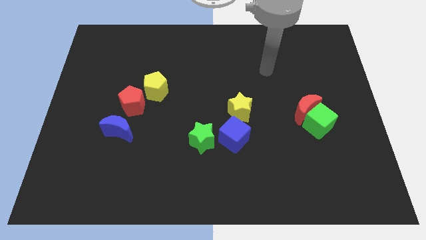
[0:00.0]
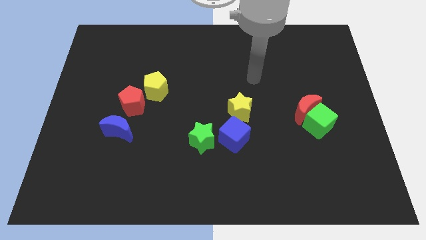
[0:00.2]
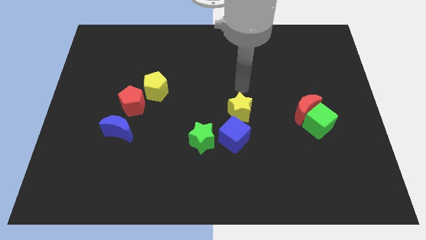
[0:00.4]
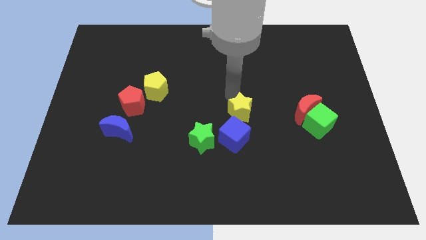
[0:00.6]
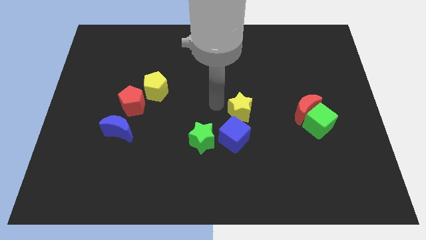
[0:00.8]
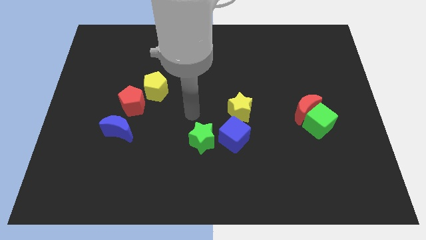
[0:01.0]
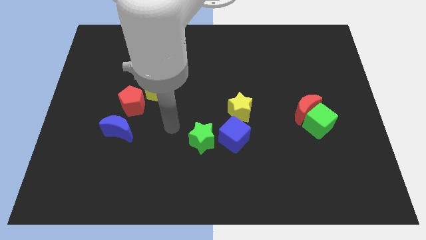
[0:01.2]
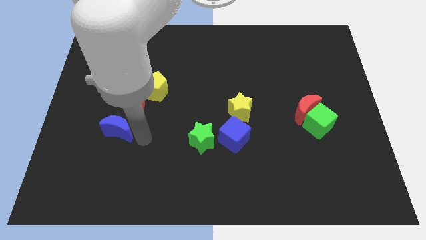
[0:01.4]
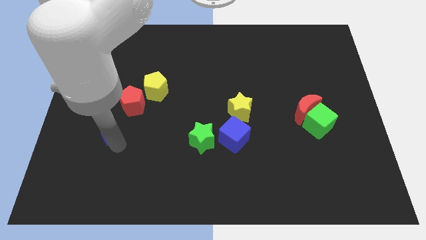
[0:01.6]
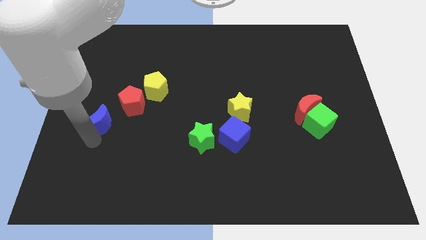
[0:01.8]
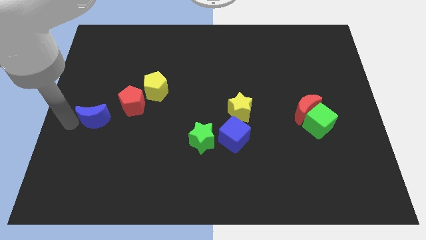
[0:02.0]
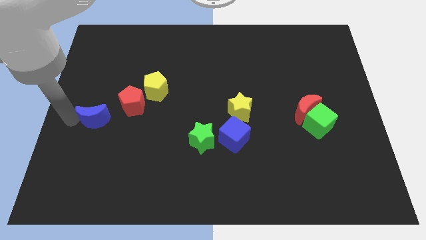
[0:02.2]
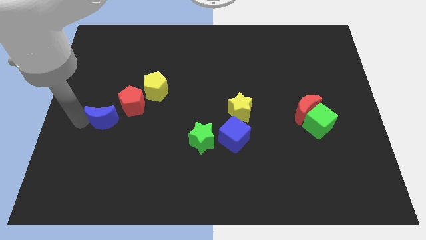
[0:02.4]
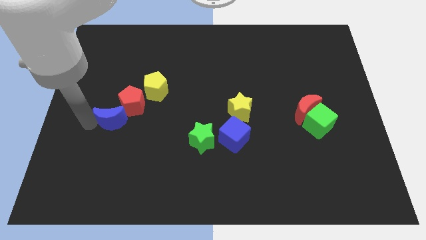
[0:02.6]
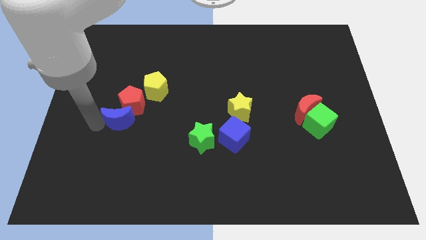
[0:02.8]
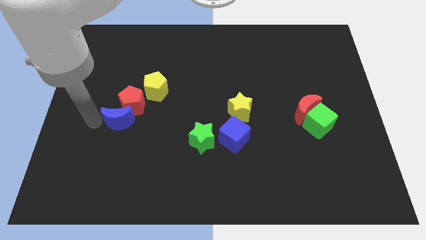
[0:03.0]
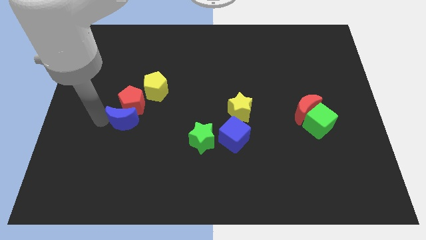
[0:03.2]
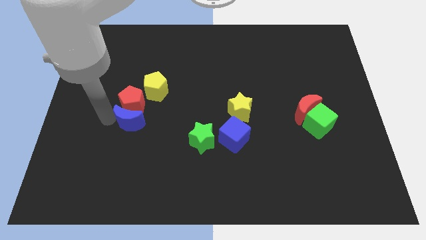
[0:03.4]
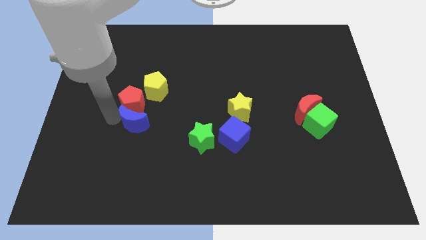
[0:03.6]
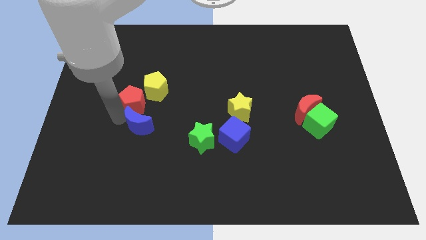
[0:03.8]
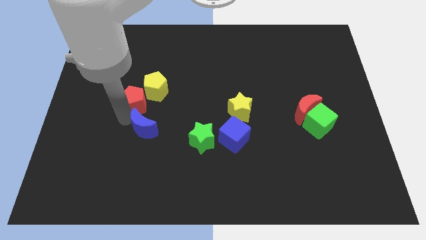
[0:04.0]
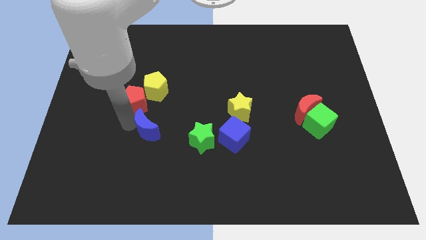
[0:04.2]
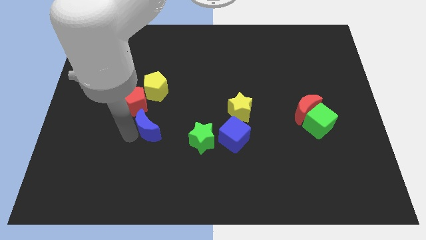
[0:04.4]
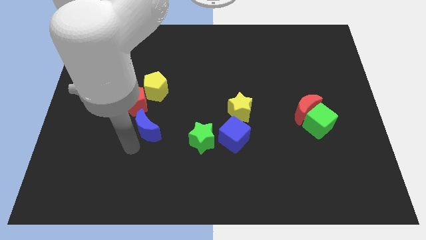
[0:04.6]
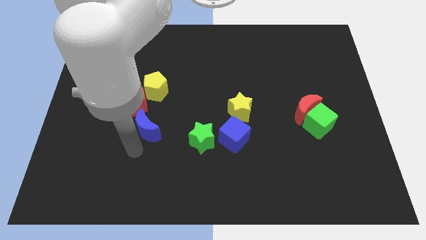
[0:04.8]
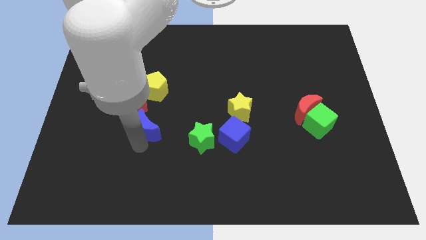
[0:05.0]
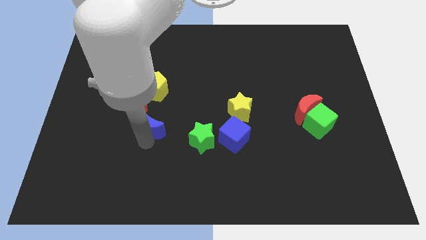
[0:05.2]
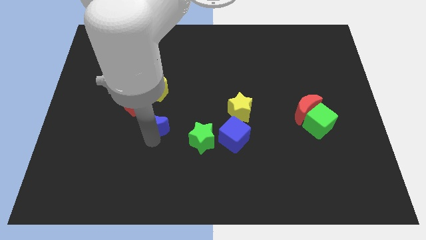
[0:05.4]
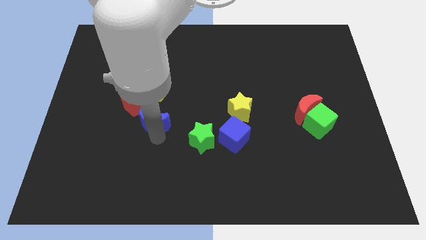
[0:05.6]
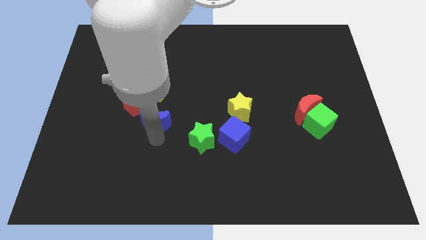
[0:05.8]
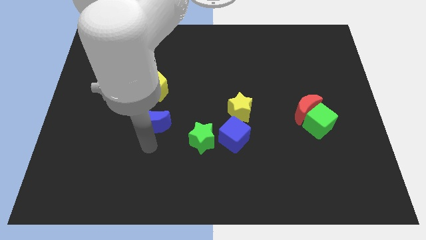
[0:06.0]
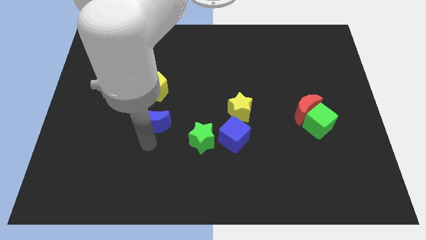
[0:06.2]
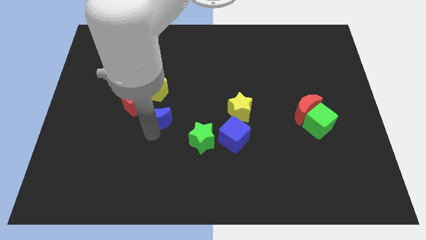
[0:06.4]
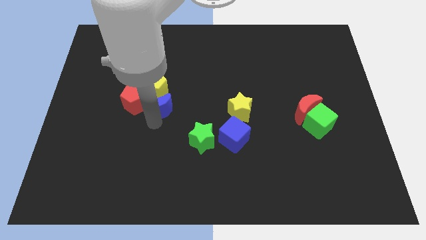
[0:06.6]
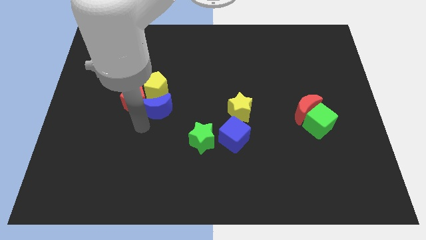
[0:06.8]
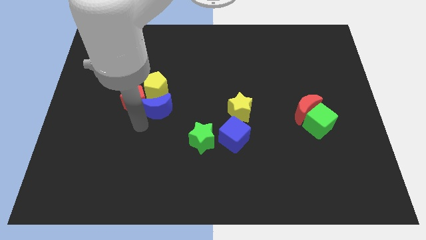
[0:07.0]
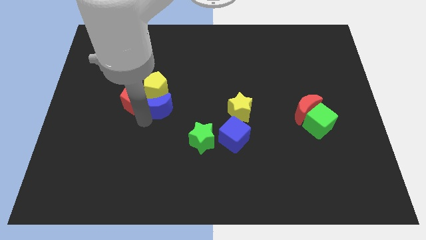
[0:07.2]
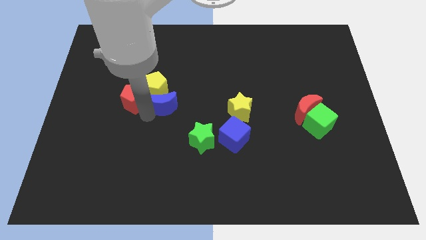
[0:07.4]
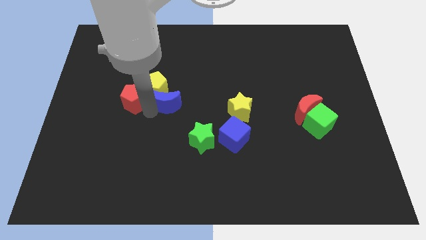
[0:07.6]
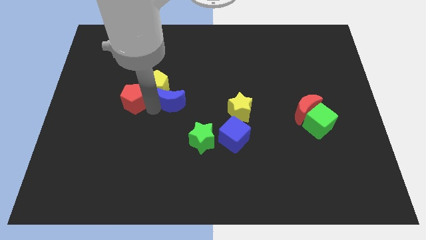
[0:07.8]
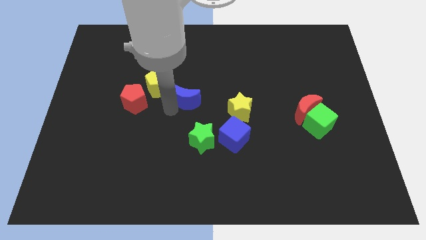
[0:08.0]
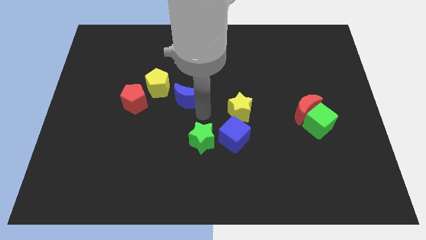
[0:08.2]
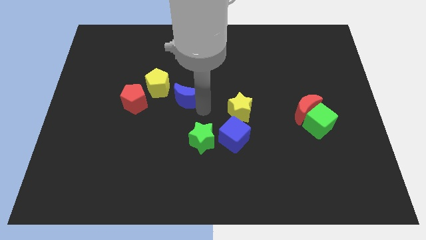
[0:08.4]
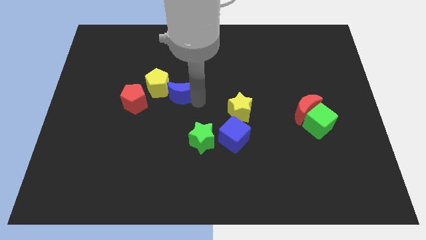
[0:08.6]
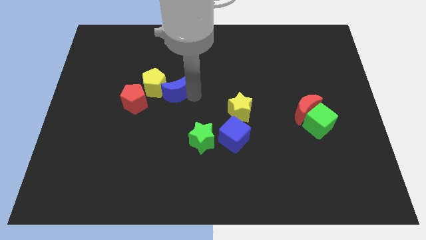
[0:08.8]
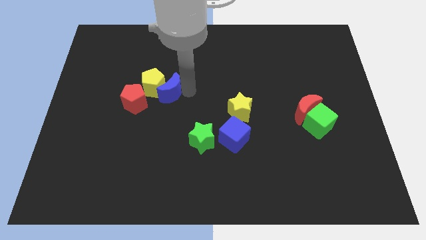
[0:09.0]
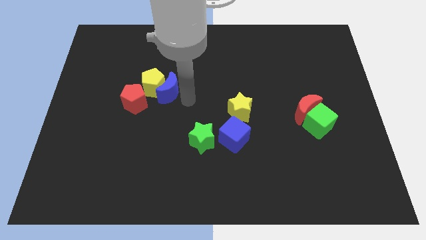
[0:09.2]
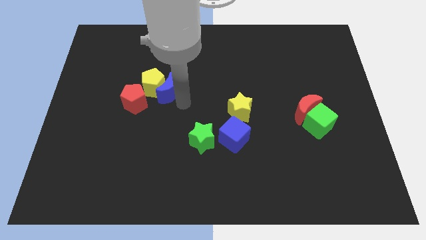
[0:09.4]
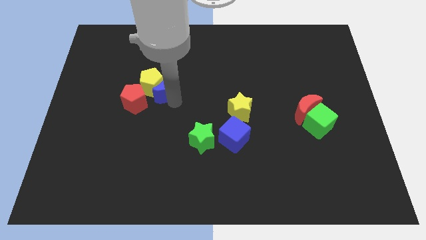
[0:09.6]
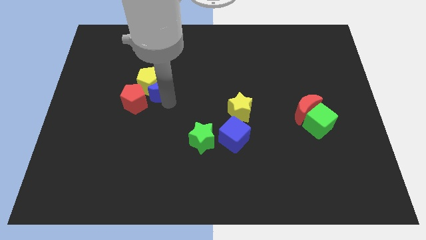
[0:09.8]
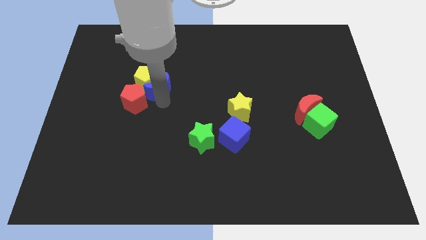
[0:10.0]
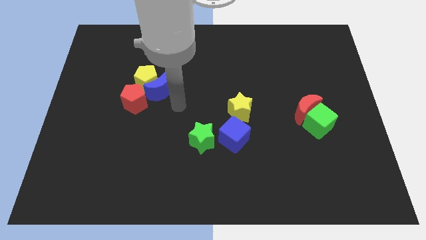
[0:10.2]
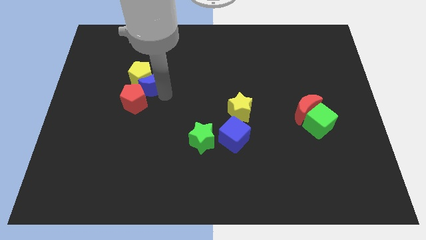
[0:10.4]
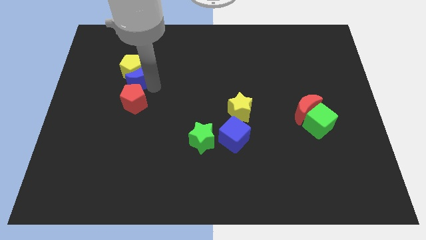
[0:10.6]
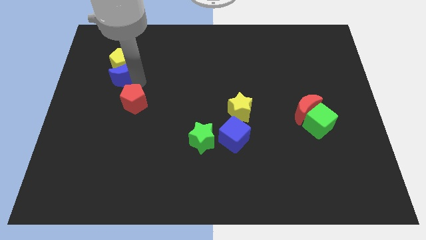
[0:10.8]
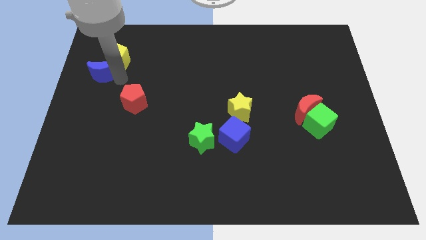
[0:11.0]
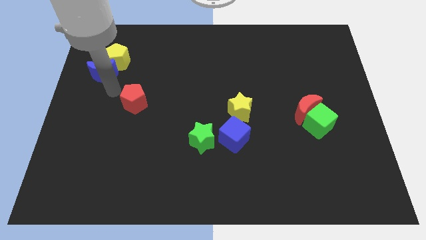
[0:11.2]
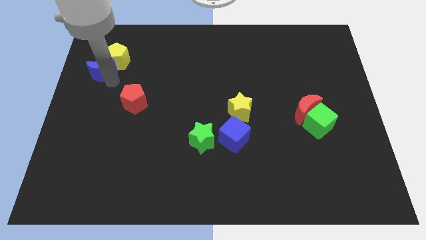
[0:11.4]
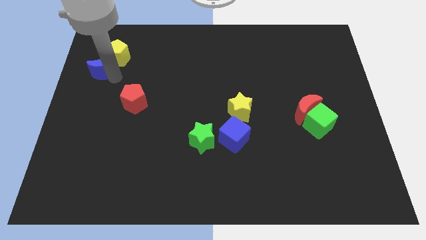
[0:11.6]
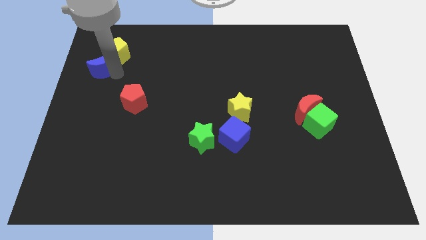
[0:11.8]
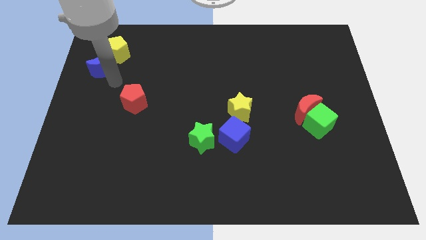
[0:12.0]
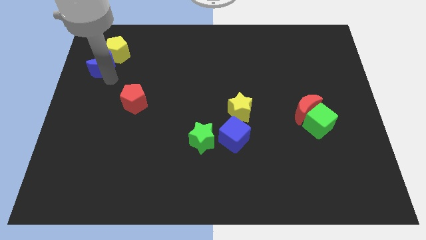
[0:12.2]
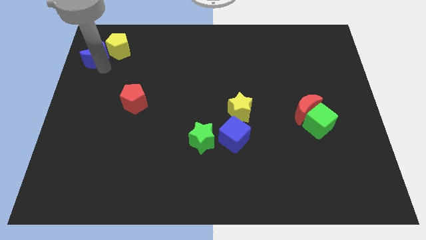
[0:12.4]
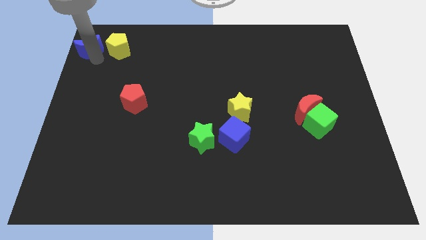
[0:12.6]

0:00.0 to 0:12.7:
push the blue moon to the top left
